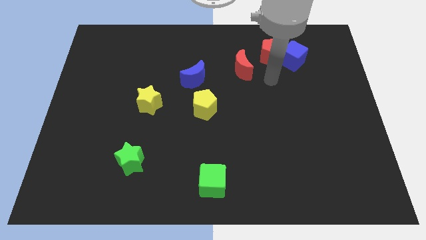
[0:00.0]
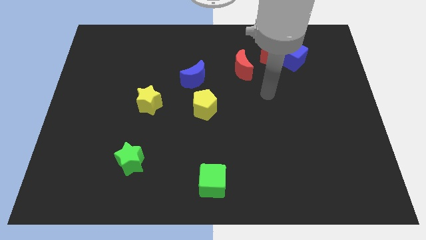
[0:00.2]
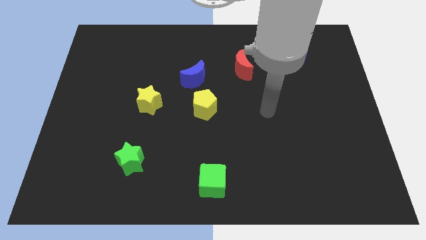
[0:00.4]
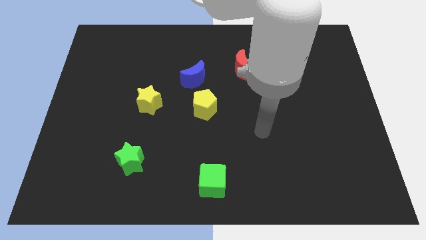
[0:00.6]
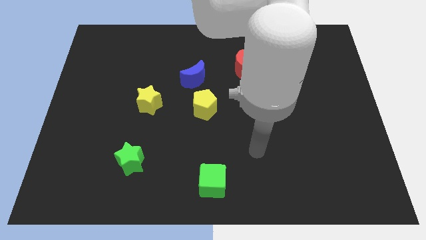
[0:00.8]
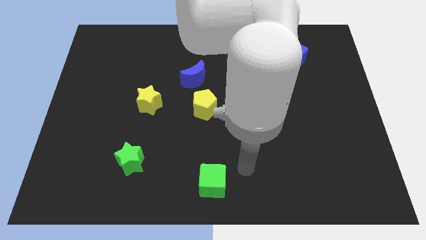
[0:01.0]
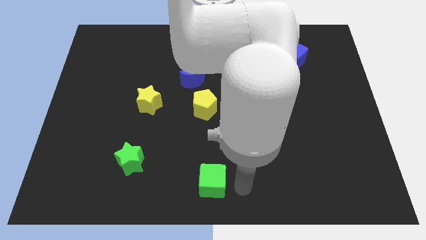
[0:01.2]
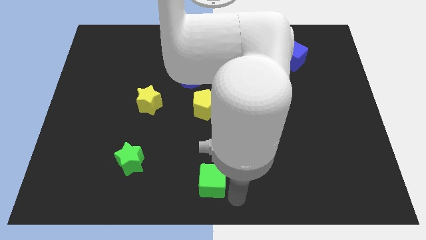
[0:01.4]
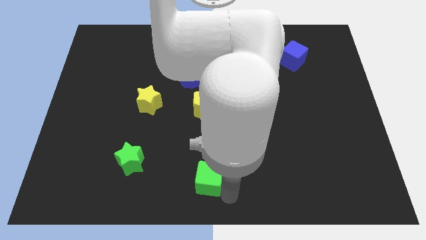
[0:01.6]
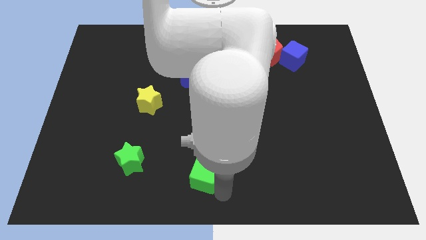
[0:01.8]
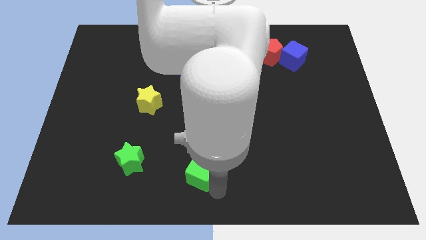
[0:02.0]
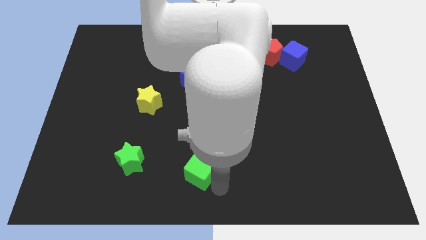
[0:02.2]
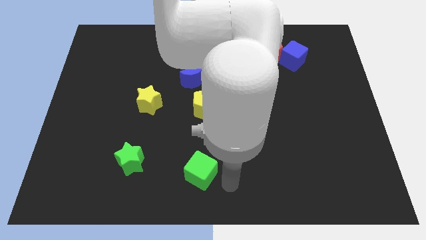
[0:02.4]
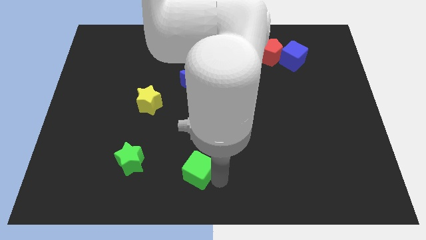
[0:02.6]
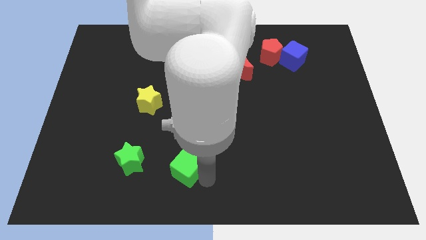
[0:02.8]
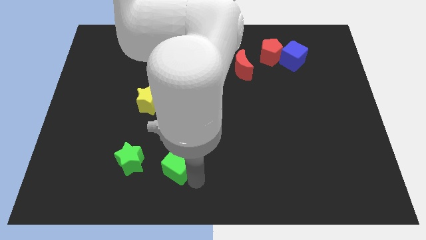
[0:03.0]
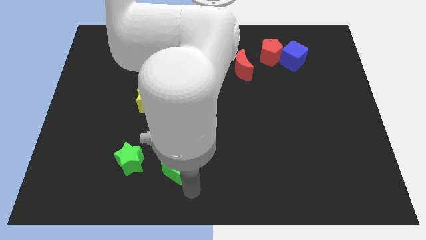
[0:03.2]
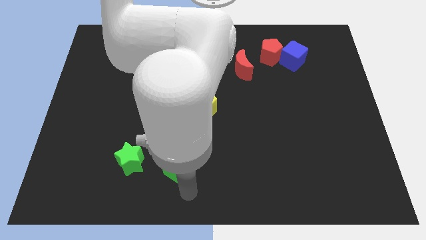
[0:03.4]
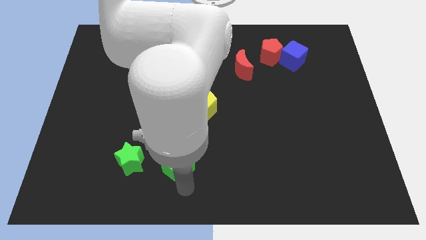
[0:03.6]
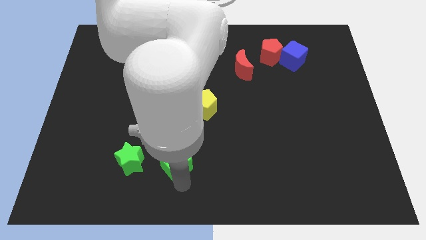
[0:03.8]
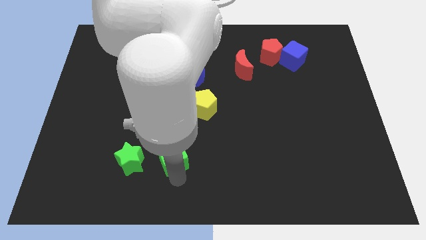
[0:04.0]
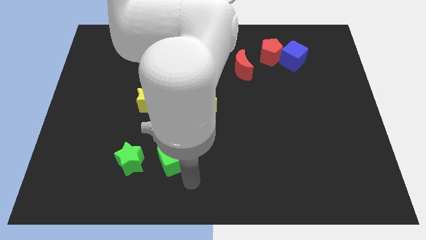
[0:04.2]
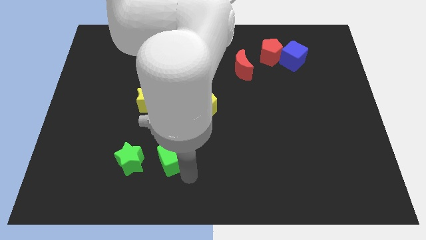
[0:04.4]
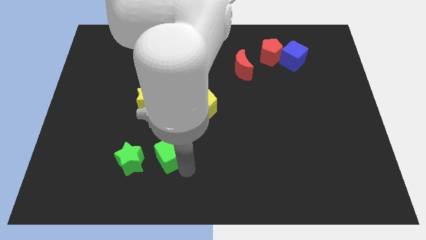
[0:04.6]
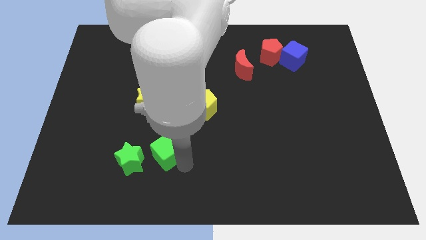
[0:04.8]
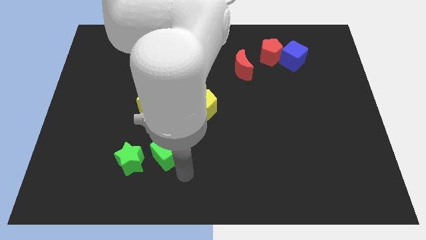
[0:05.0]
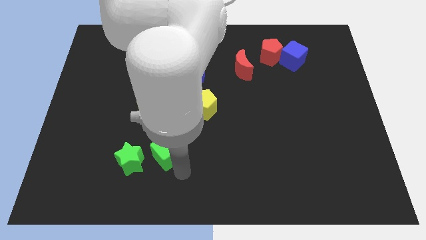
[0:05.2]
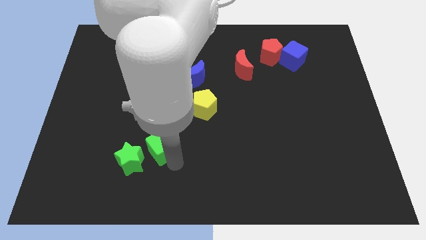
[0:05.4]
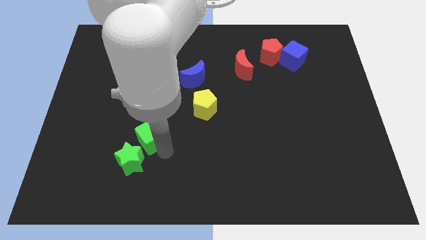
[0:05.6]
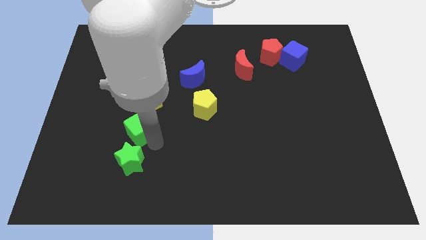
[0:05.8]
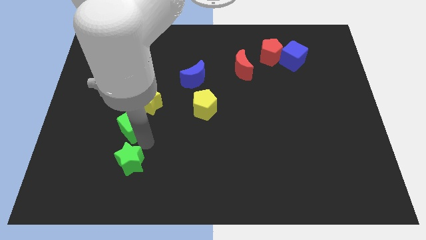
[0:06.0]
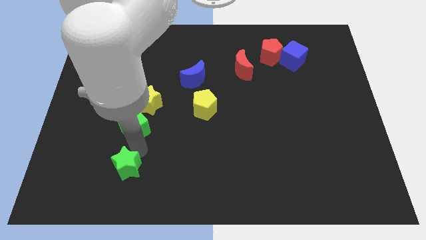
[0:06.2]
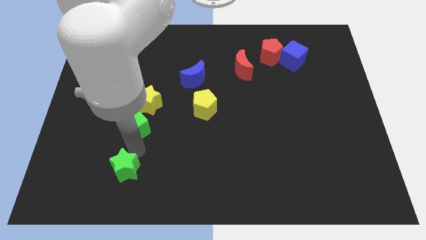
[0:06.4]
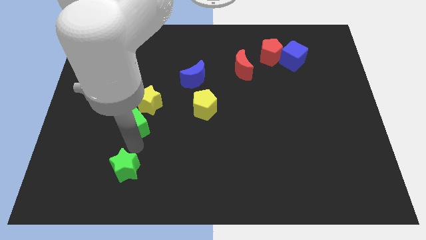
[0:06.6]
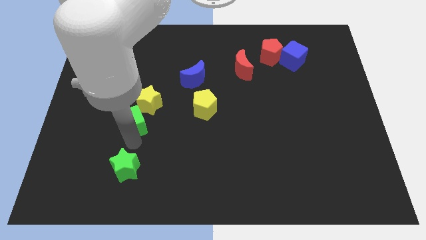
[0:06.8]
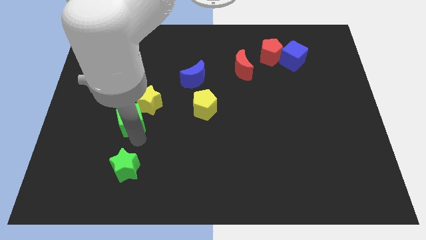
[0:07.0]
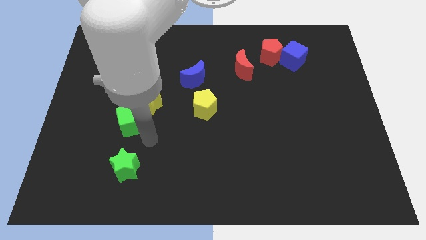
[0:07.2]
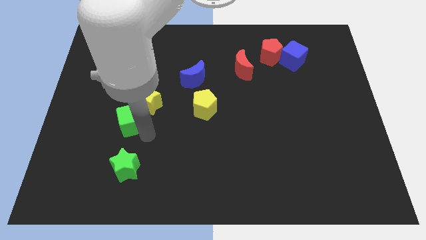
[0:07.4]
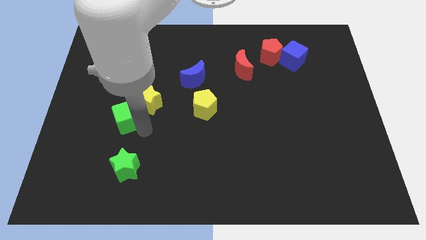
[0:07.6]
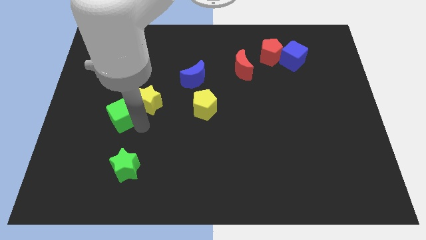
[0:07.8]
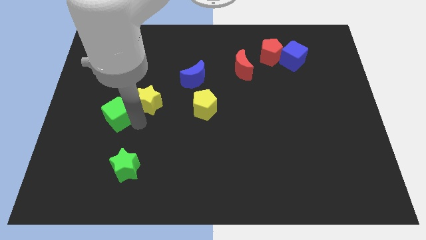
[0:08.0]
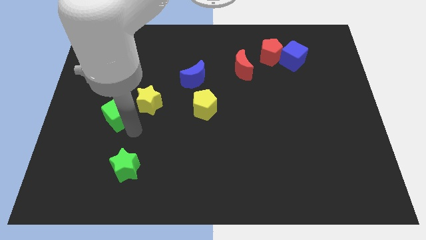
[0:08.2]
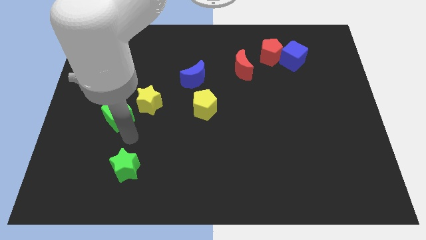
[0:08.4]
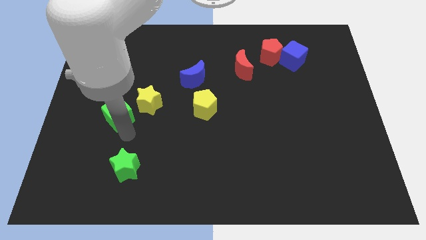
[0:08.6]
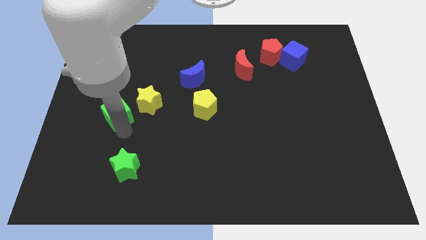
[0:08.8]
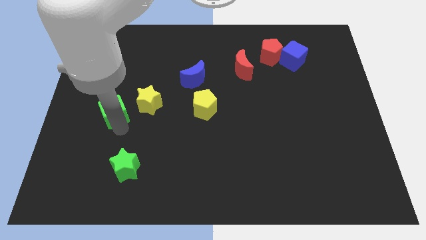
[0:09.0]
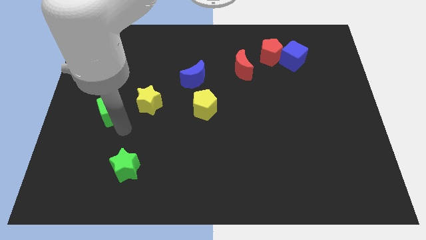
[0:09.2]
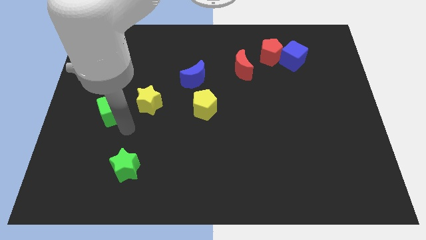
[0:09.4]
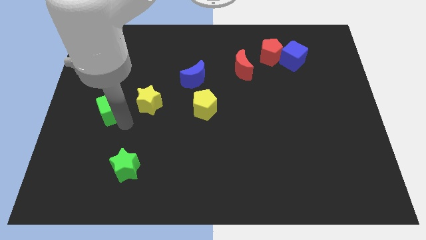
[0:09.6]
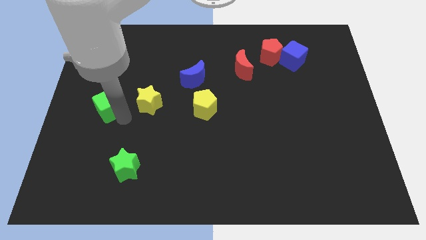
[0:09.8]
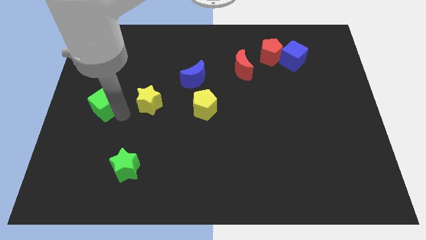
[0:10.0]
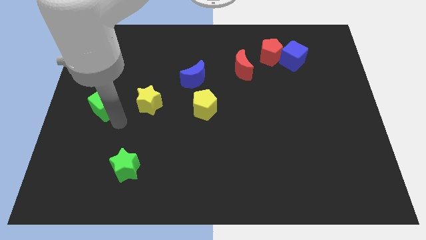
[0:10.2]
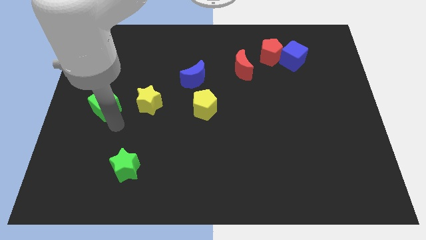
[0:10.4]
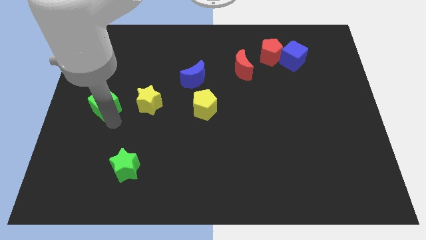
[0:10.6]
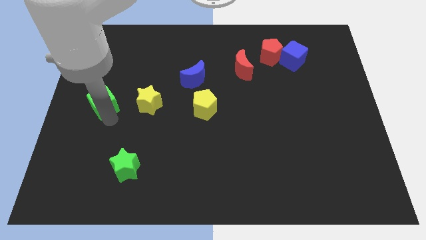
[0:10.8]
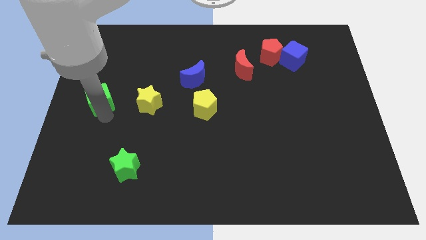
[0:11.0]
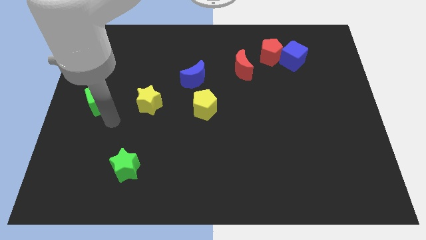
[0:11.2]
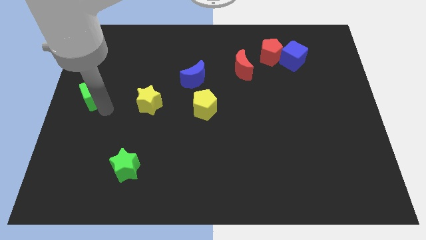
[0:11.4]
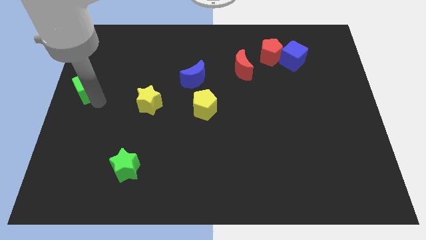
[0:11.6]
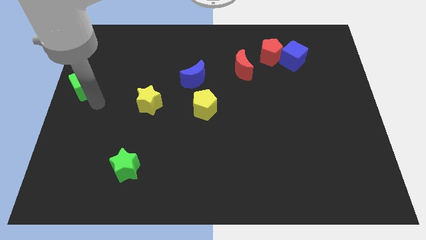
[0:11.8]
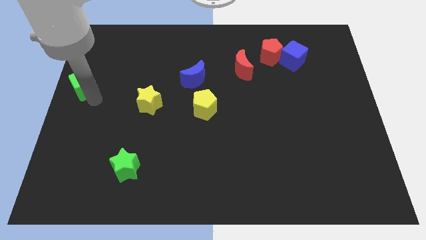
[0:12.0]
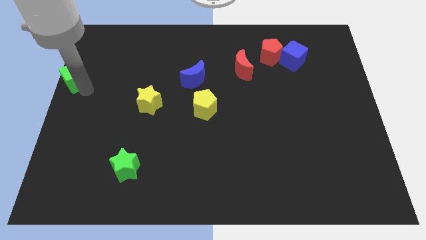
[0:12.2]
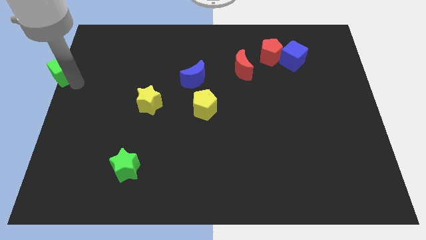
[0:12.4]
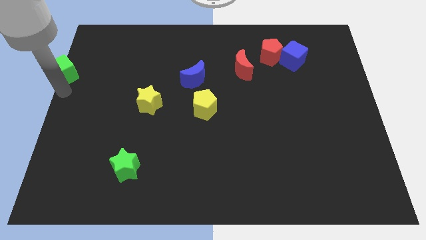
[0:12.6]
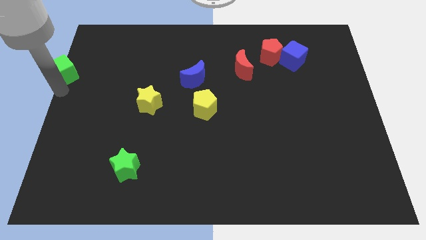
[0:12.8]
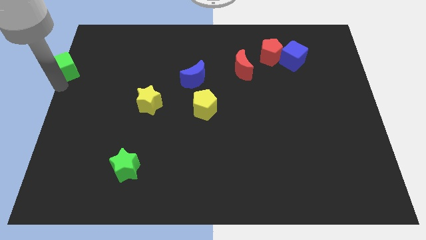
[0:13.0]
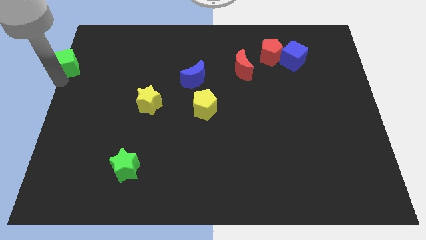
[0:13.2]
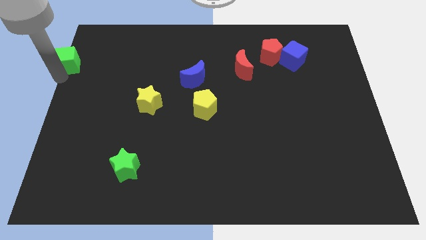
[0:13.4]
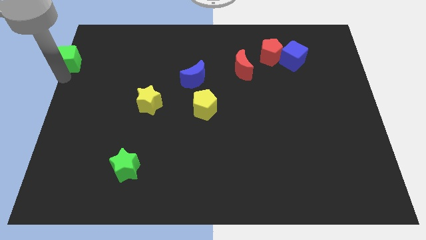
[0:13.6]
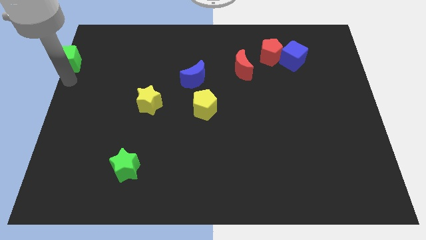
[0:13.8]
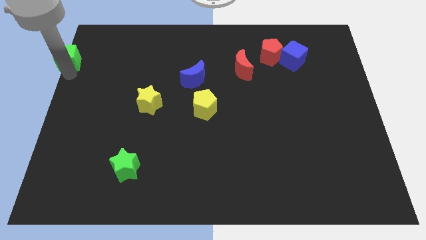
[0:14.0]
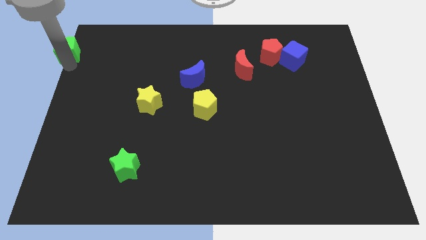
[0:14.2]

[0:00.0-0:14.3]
push the green cube to the top left of the board
